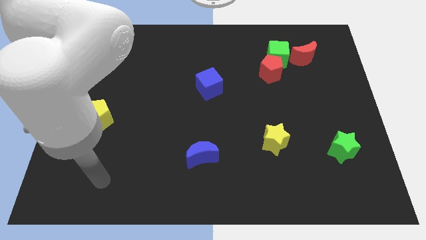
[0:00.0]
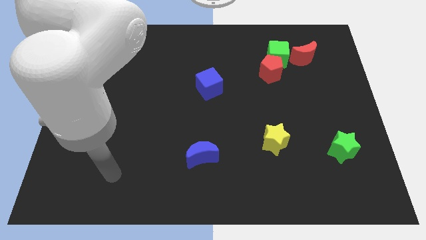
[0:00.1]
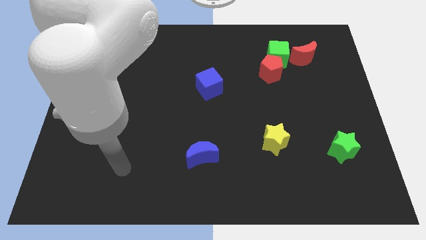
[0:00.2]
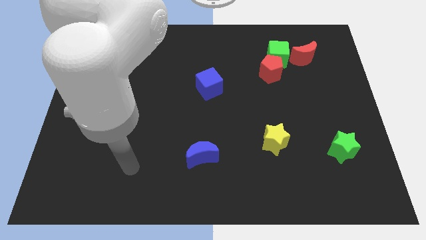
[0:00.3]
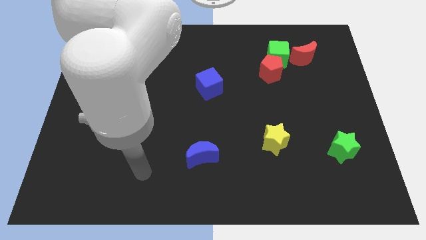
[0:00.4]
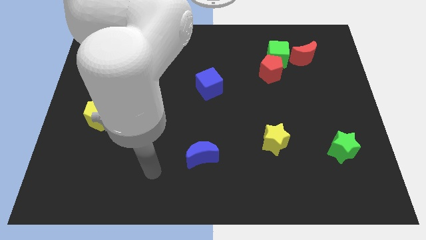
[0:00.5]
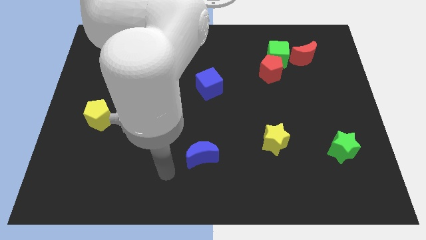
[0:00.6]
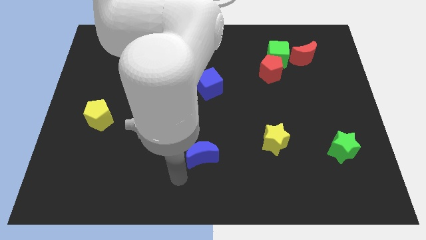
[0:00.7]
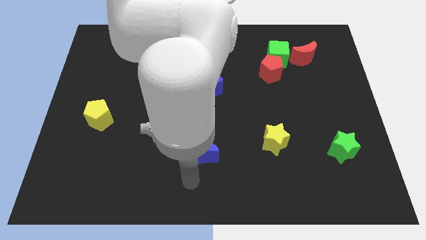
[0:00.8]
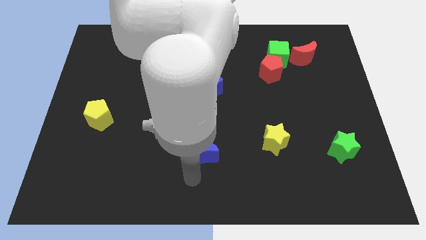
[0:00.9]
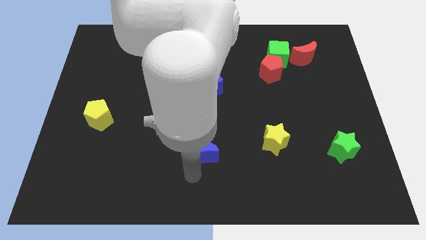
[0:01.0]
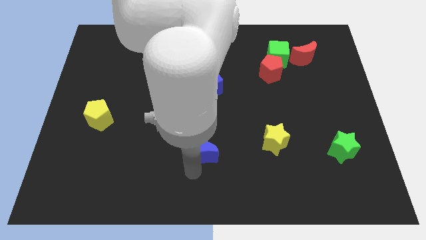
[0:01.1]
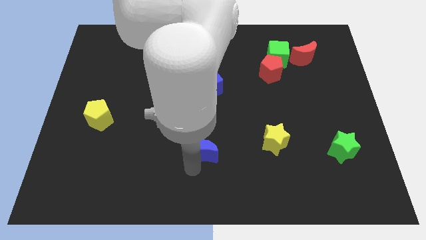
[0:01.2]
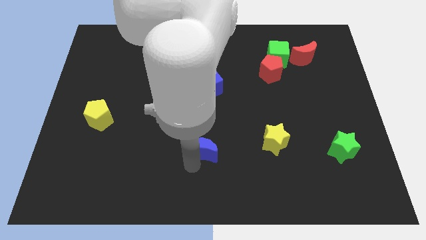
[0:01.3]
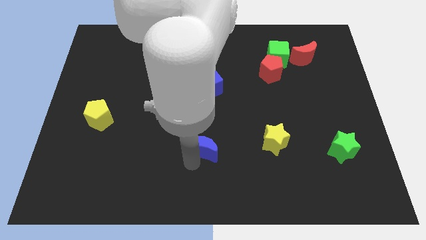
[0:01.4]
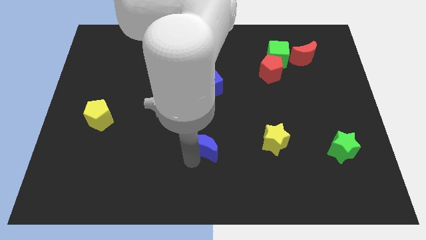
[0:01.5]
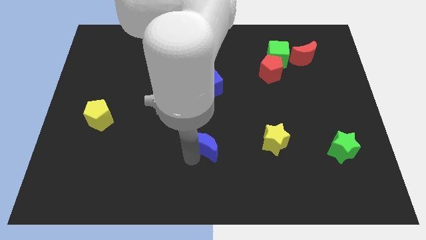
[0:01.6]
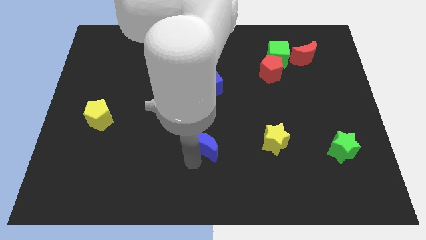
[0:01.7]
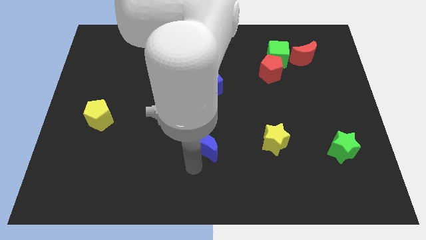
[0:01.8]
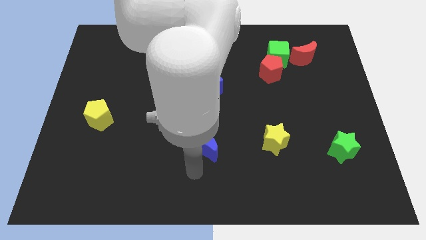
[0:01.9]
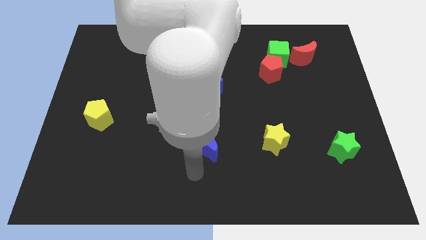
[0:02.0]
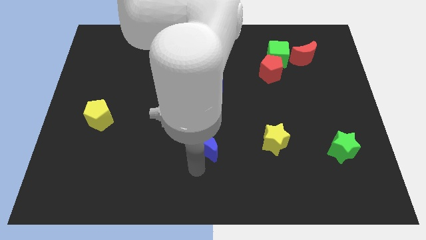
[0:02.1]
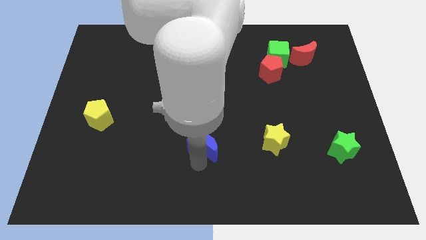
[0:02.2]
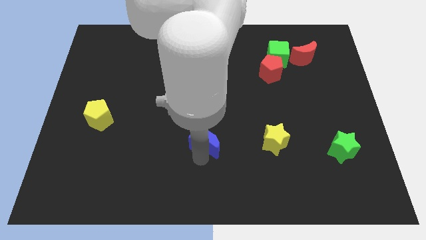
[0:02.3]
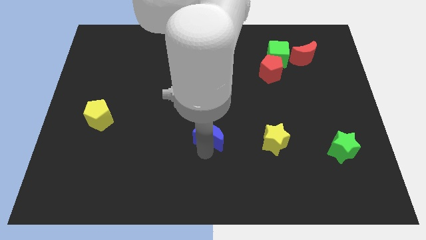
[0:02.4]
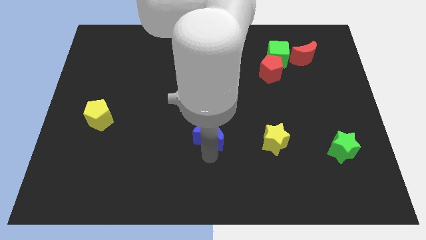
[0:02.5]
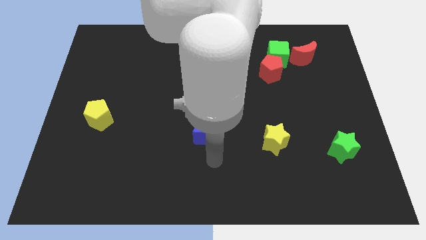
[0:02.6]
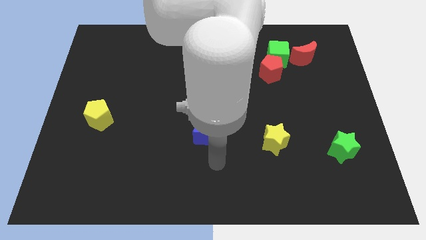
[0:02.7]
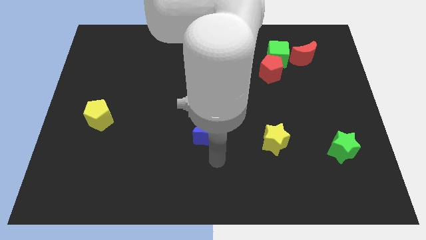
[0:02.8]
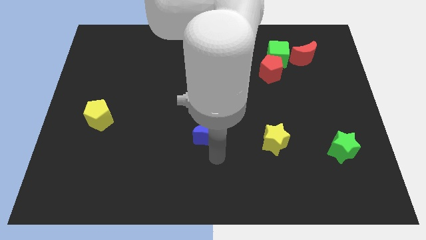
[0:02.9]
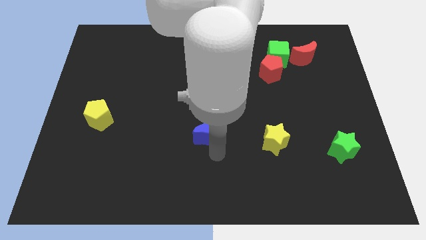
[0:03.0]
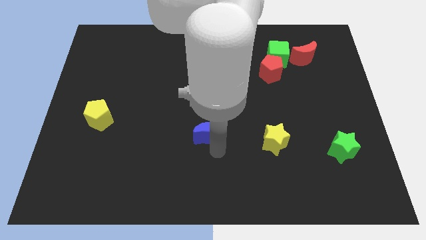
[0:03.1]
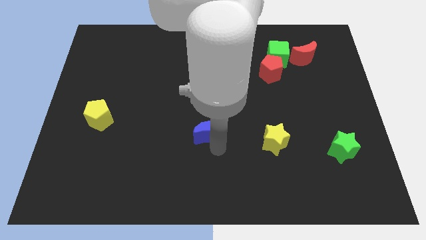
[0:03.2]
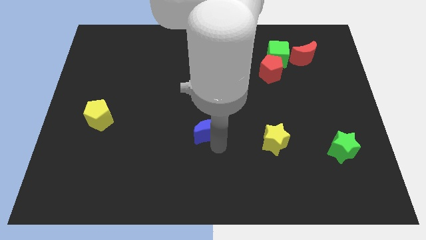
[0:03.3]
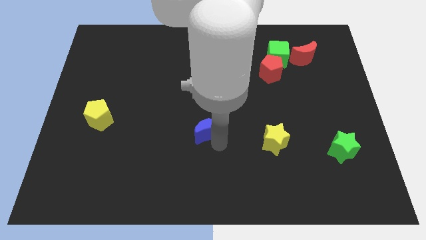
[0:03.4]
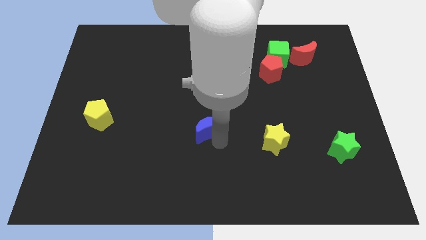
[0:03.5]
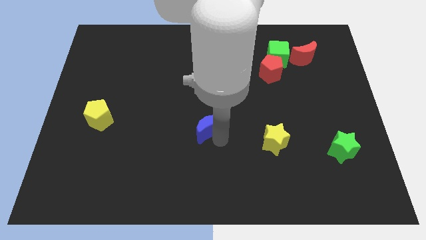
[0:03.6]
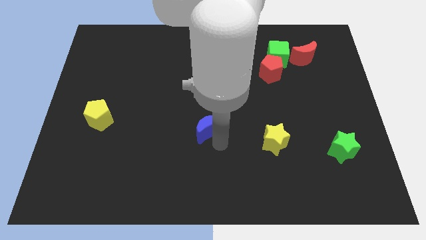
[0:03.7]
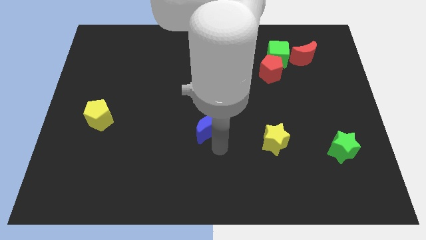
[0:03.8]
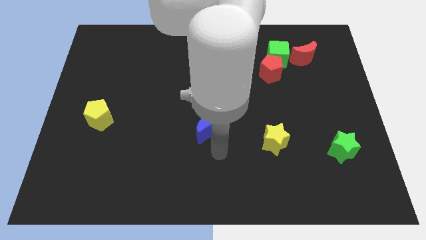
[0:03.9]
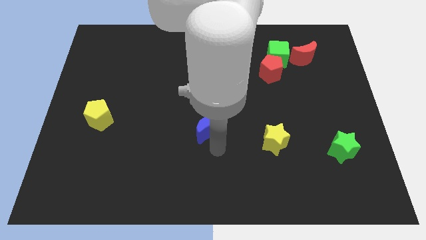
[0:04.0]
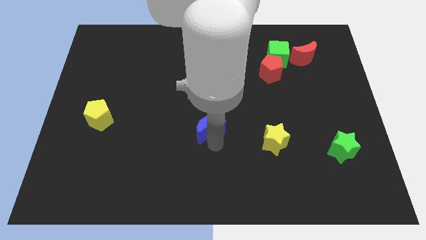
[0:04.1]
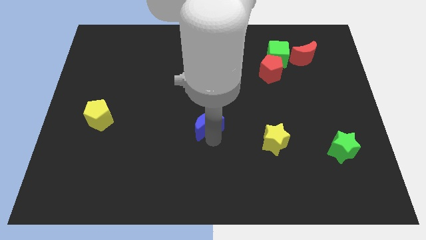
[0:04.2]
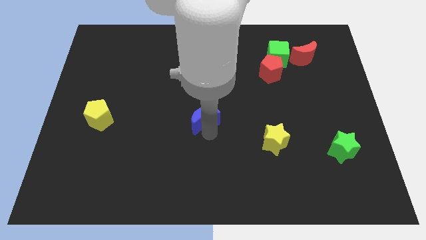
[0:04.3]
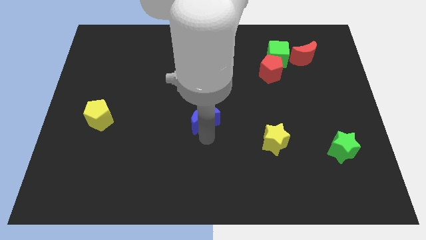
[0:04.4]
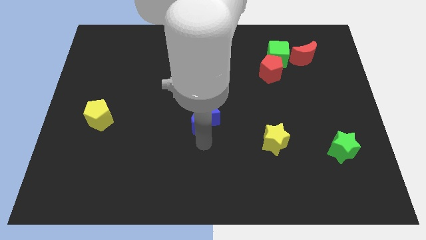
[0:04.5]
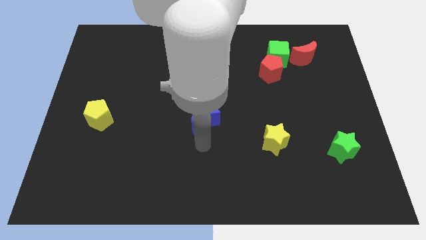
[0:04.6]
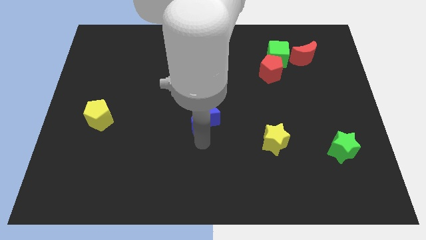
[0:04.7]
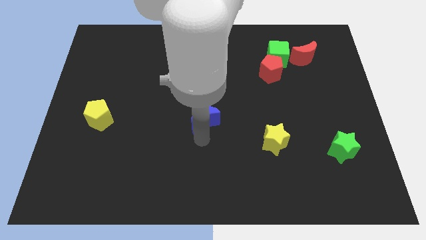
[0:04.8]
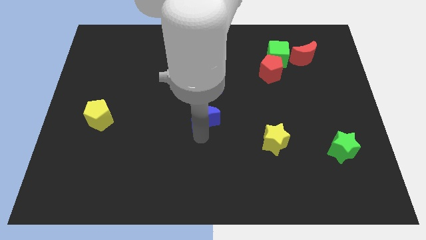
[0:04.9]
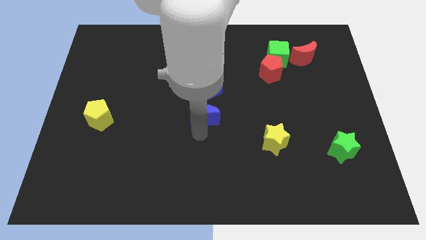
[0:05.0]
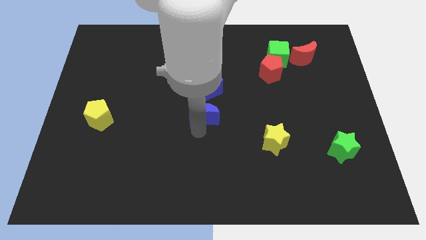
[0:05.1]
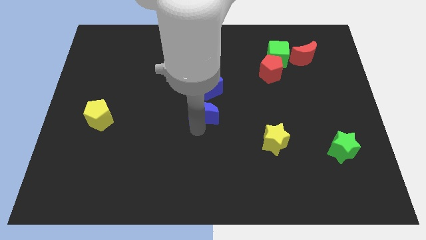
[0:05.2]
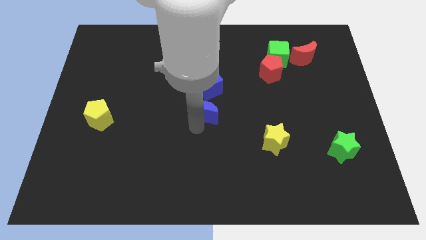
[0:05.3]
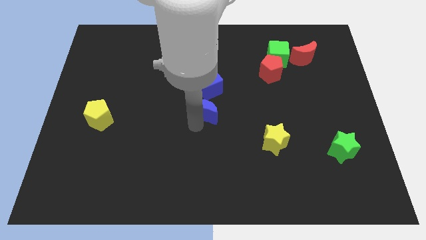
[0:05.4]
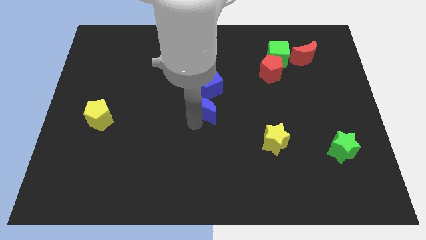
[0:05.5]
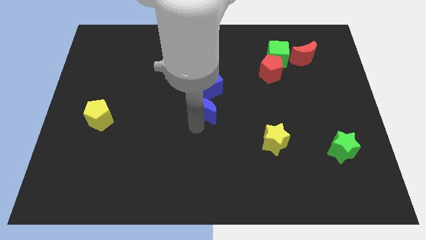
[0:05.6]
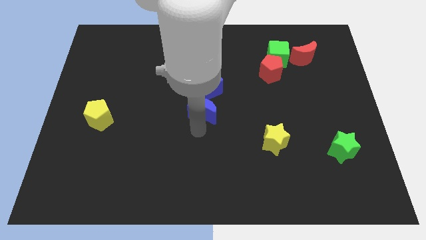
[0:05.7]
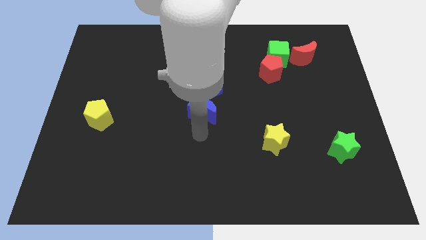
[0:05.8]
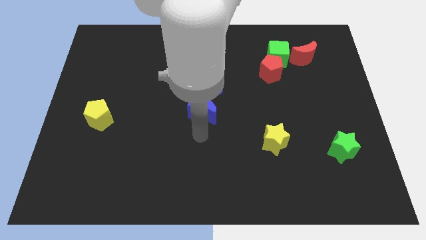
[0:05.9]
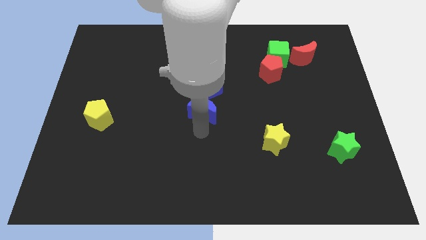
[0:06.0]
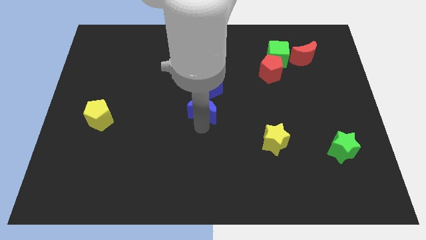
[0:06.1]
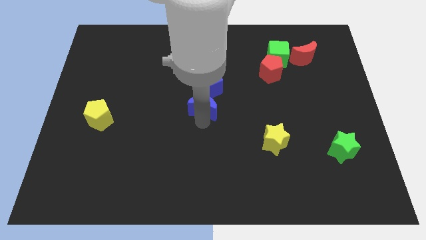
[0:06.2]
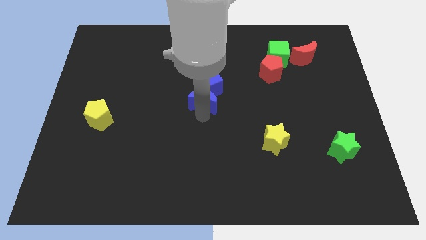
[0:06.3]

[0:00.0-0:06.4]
put the blue moon close to the blue cube
